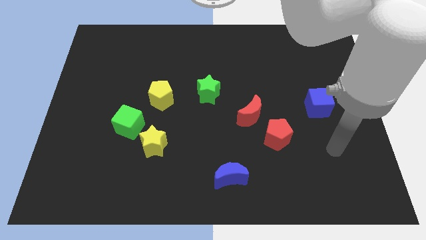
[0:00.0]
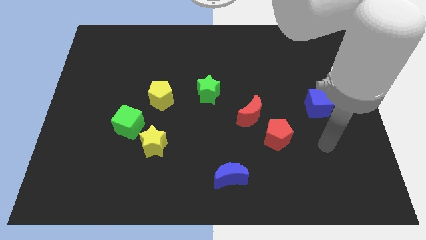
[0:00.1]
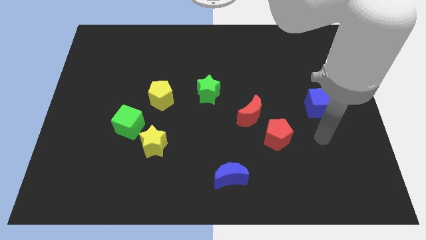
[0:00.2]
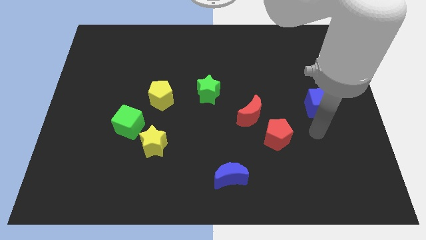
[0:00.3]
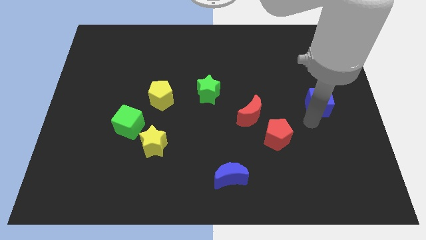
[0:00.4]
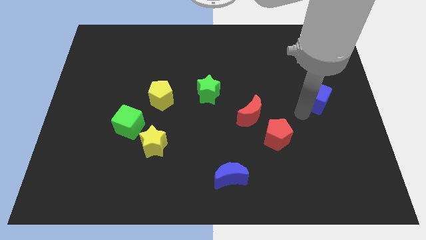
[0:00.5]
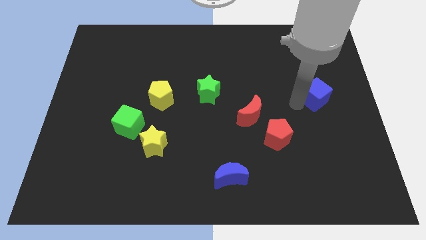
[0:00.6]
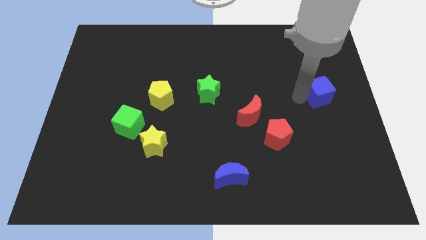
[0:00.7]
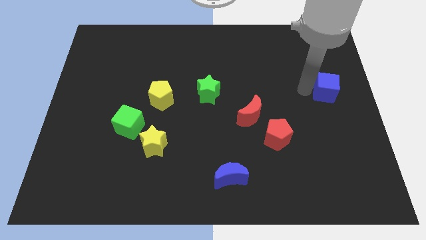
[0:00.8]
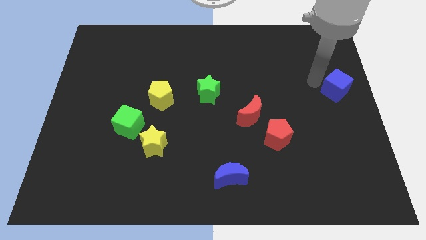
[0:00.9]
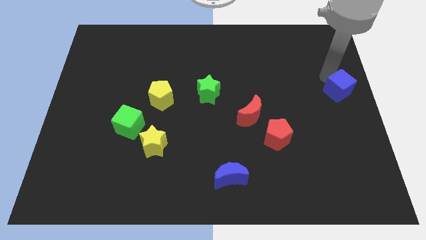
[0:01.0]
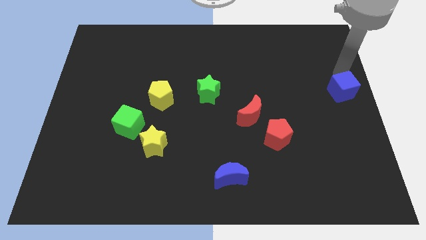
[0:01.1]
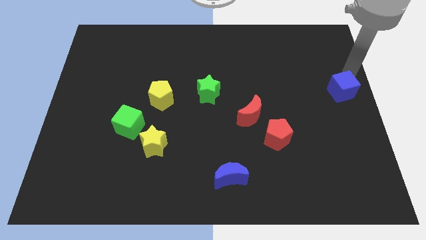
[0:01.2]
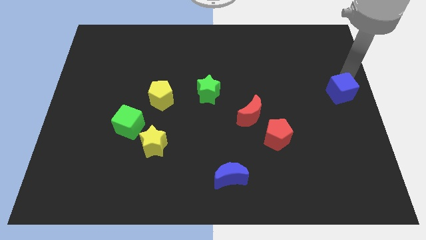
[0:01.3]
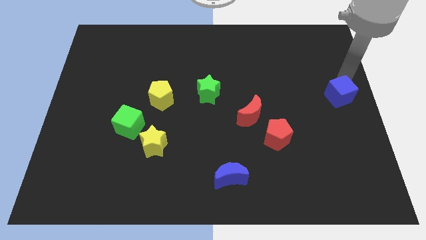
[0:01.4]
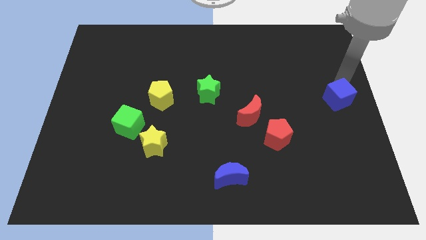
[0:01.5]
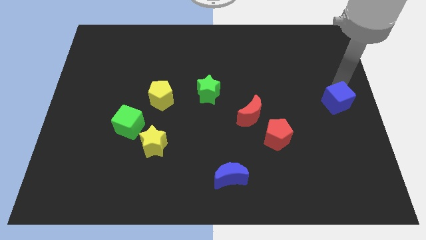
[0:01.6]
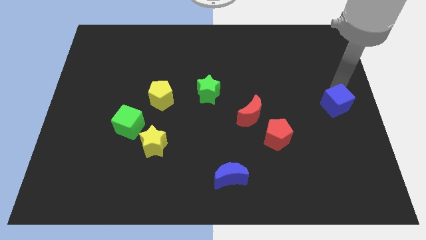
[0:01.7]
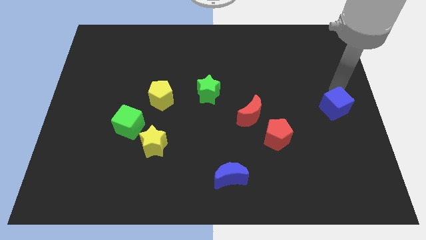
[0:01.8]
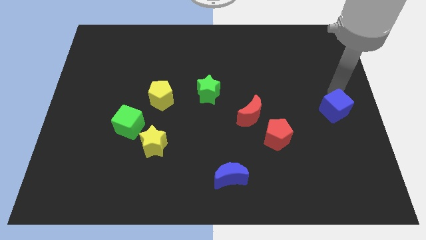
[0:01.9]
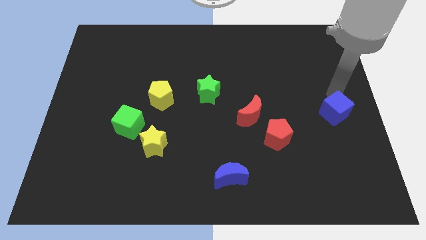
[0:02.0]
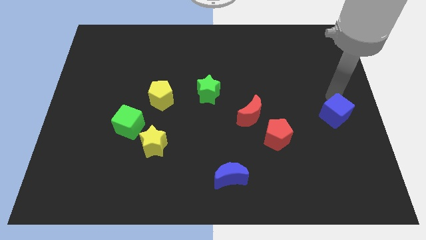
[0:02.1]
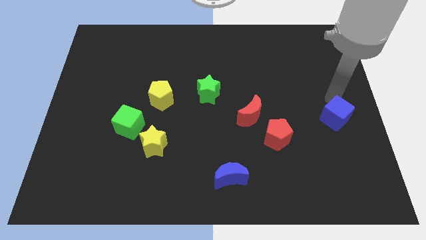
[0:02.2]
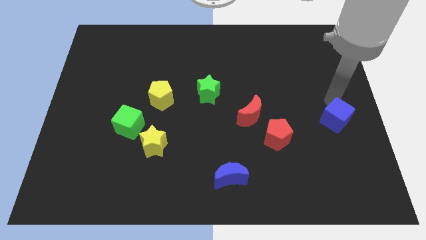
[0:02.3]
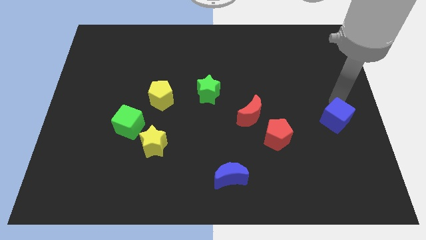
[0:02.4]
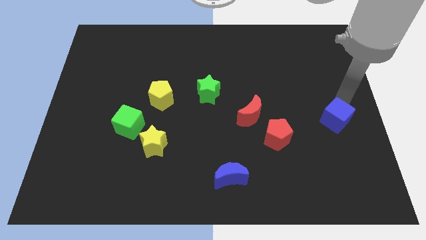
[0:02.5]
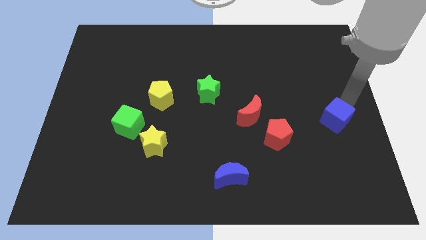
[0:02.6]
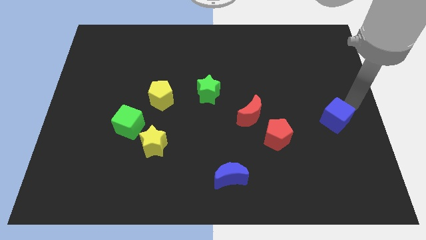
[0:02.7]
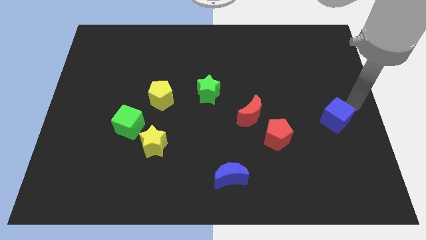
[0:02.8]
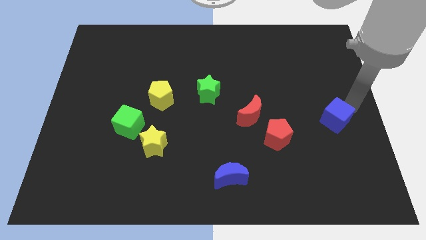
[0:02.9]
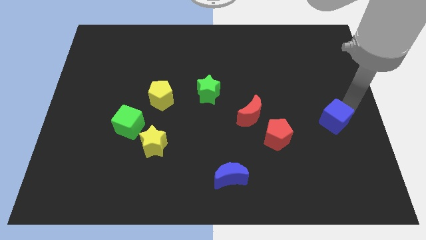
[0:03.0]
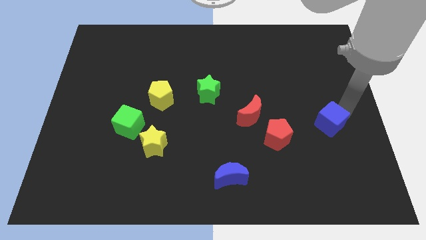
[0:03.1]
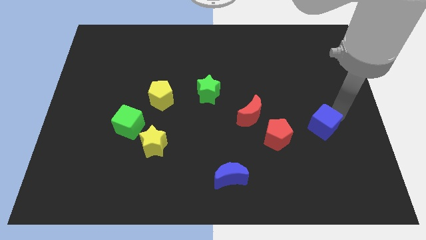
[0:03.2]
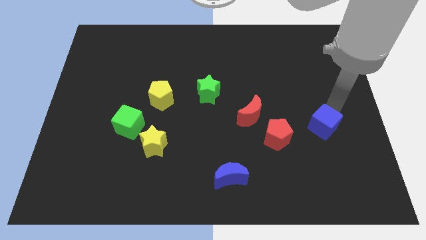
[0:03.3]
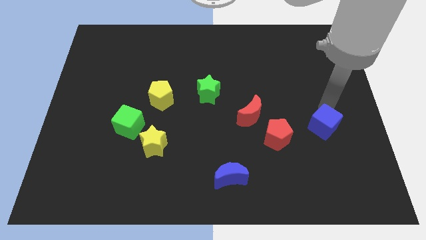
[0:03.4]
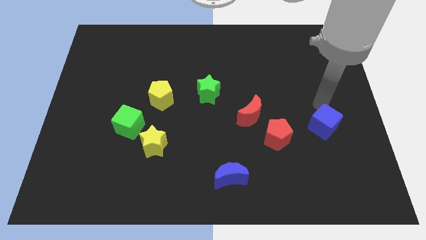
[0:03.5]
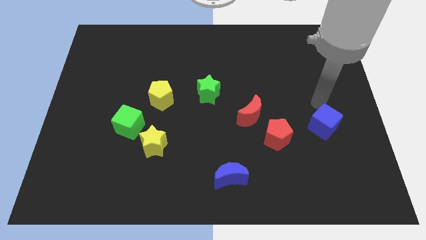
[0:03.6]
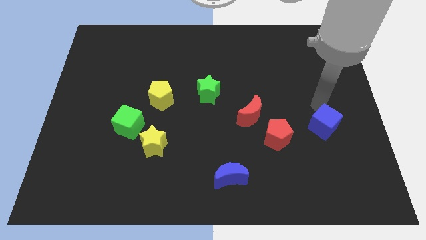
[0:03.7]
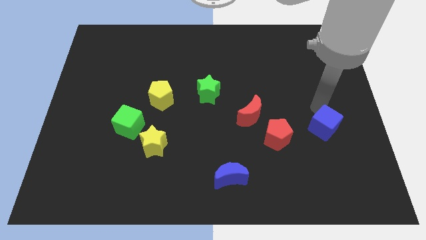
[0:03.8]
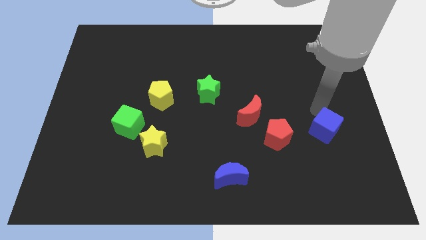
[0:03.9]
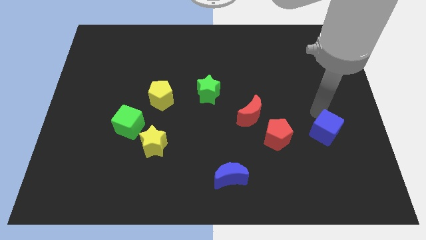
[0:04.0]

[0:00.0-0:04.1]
move the blue cube a little downwards

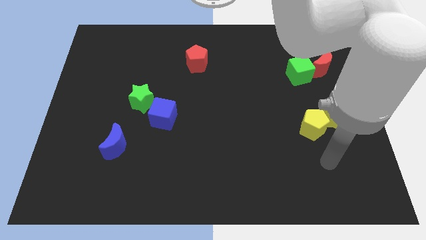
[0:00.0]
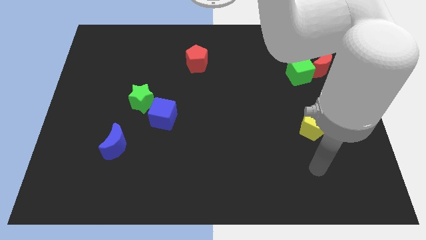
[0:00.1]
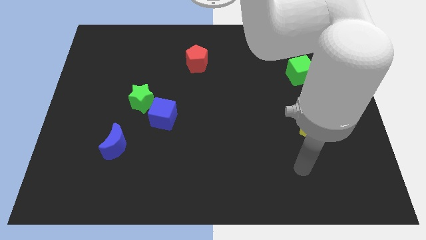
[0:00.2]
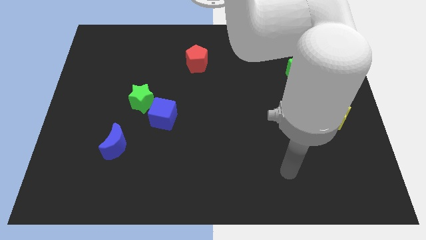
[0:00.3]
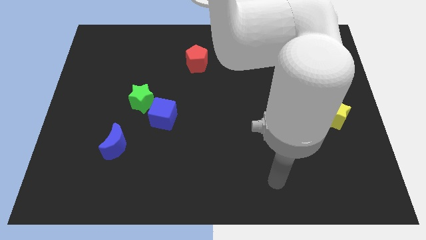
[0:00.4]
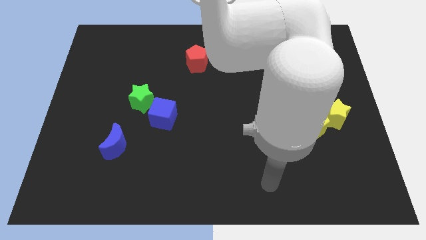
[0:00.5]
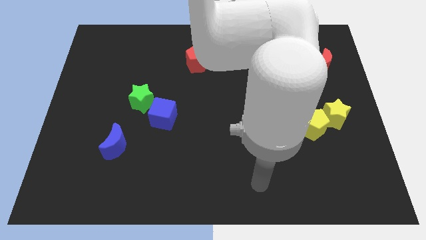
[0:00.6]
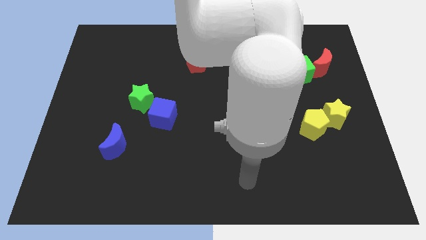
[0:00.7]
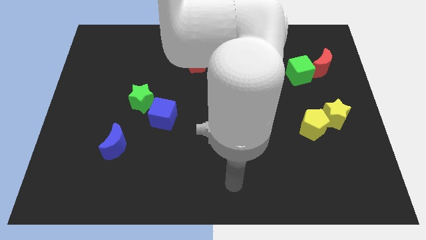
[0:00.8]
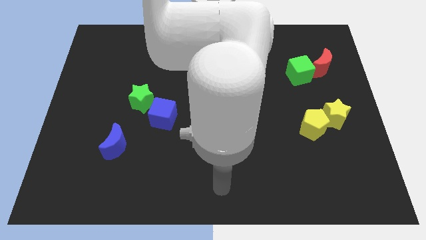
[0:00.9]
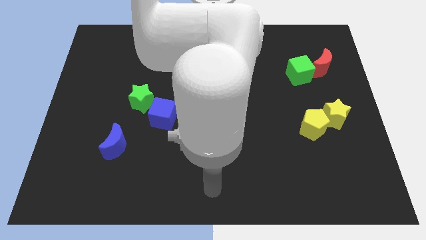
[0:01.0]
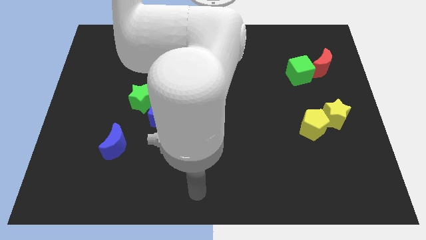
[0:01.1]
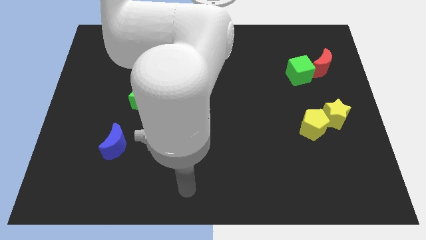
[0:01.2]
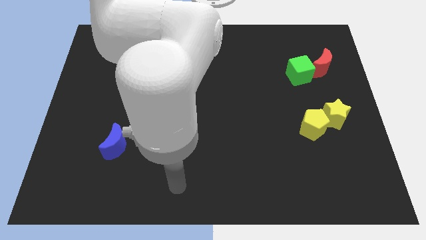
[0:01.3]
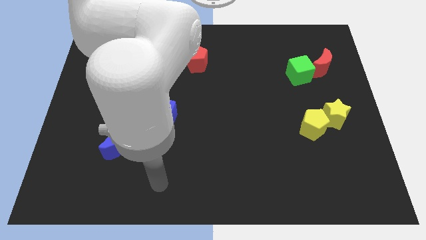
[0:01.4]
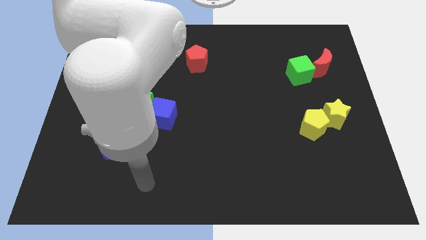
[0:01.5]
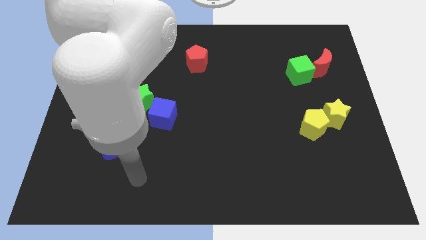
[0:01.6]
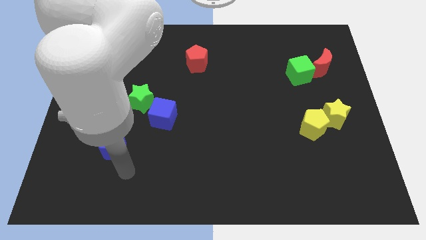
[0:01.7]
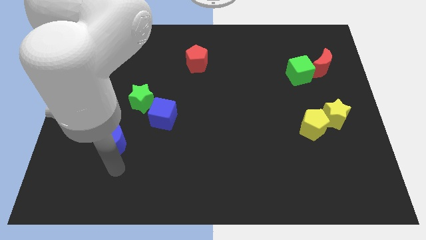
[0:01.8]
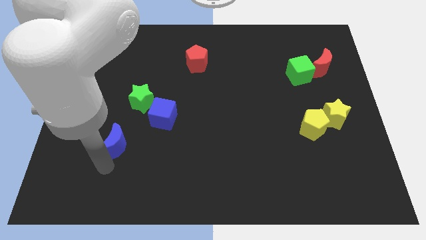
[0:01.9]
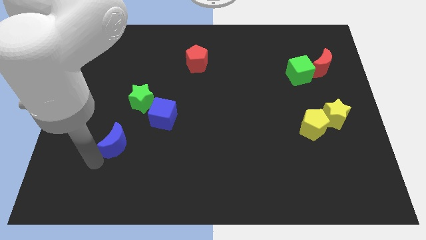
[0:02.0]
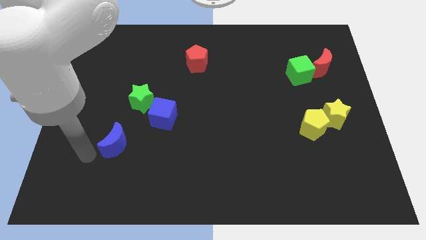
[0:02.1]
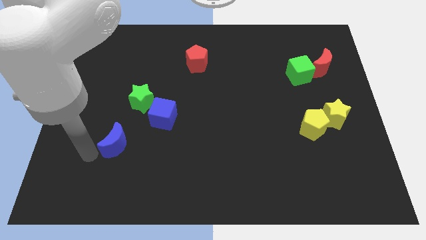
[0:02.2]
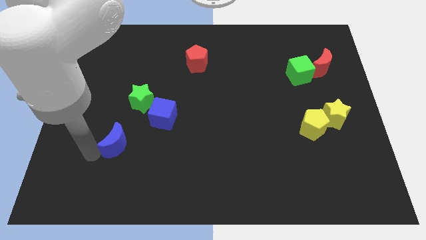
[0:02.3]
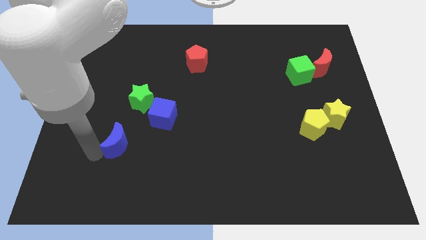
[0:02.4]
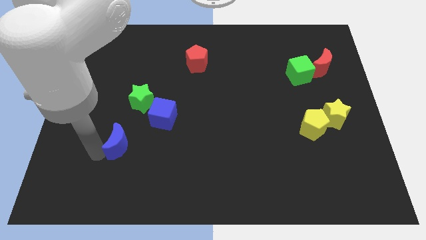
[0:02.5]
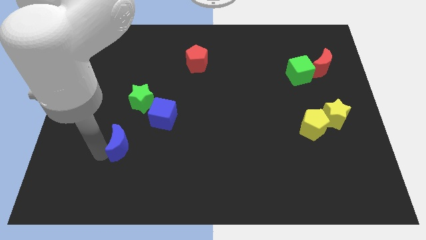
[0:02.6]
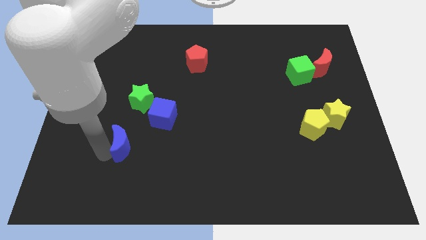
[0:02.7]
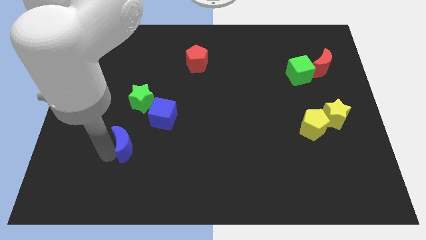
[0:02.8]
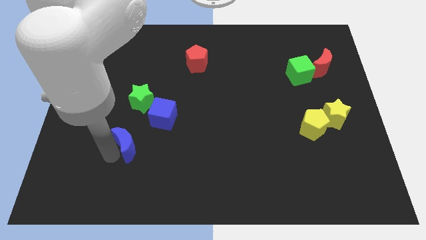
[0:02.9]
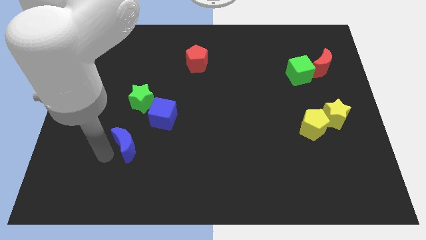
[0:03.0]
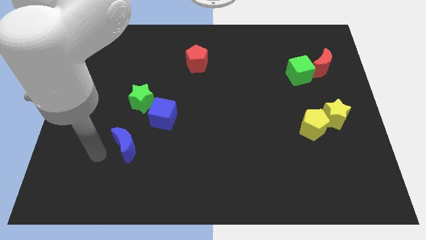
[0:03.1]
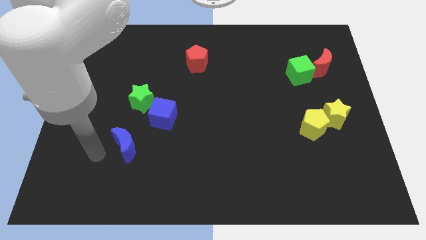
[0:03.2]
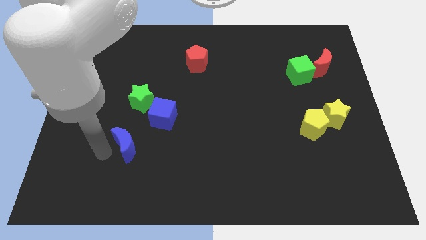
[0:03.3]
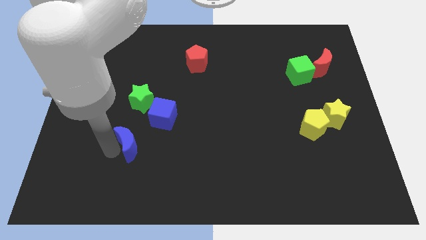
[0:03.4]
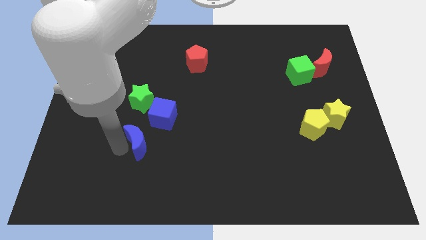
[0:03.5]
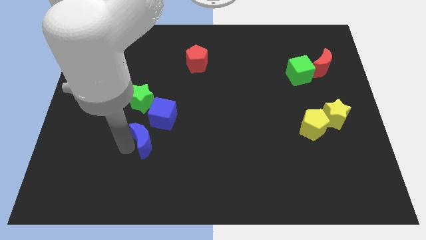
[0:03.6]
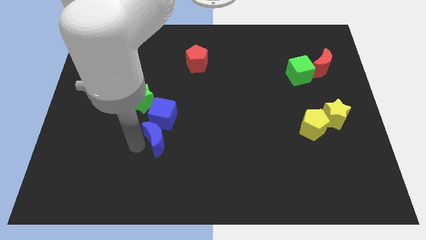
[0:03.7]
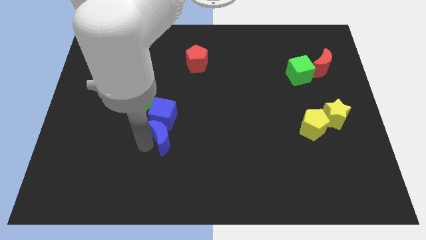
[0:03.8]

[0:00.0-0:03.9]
slightly move the blue moon upwards and right
